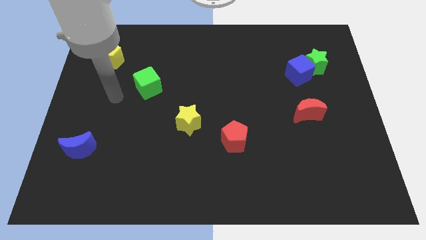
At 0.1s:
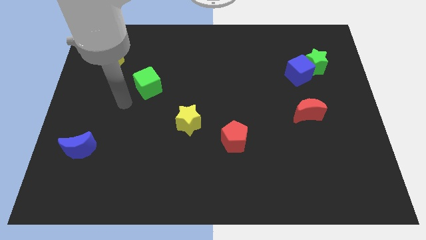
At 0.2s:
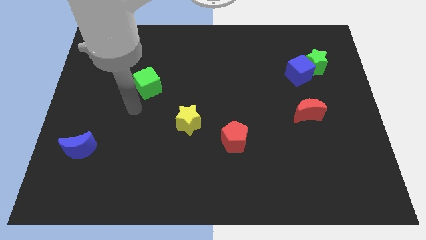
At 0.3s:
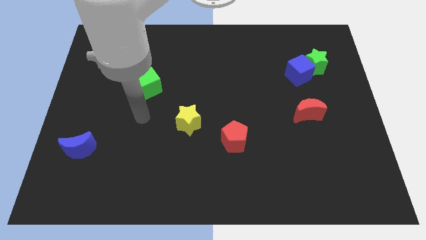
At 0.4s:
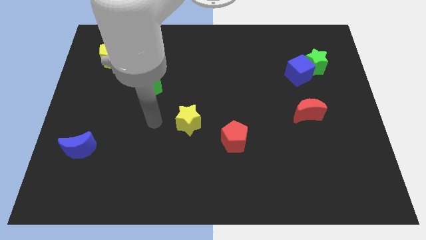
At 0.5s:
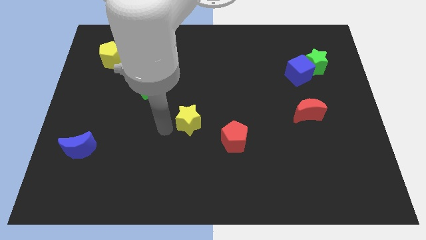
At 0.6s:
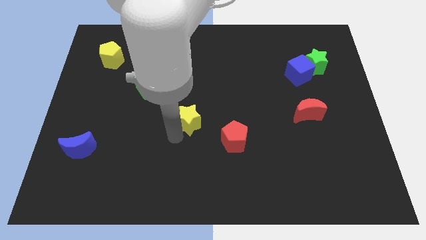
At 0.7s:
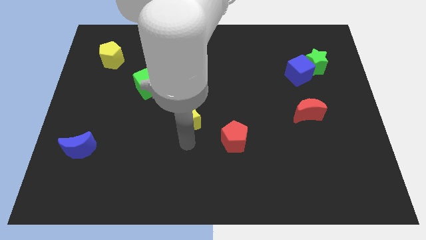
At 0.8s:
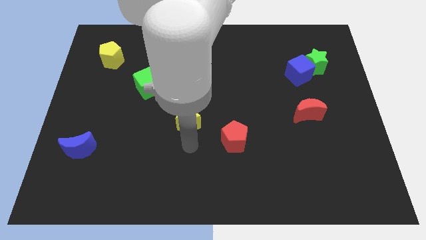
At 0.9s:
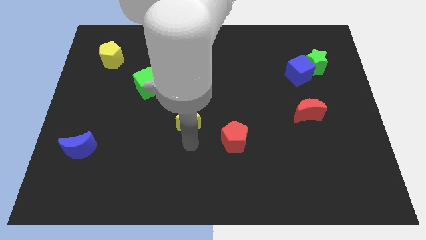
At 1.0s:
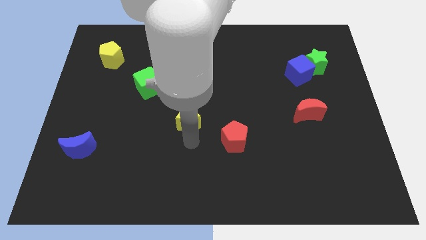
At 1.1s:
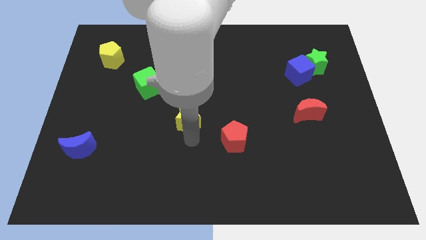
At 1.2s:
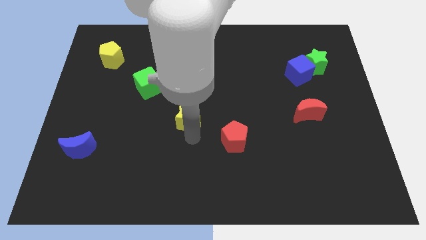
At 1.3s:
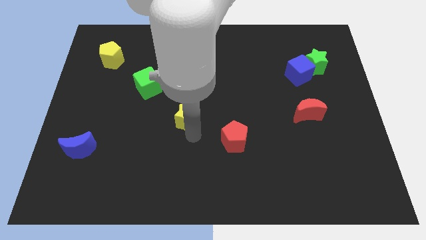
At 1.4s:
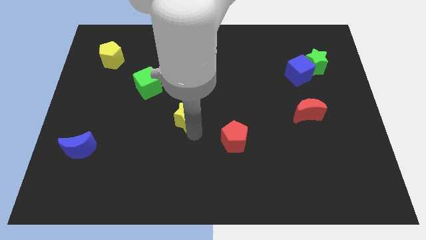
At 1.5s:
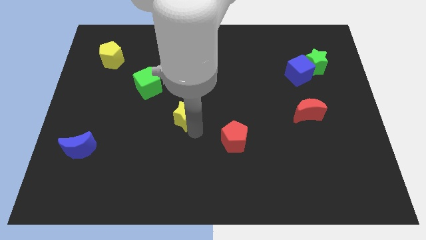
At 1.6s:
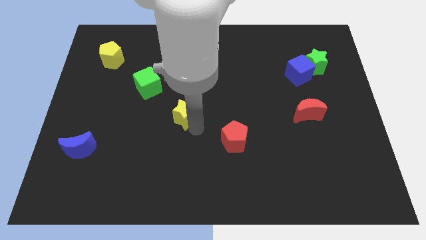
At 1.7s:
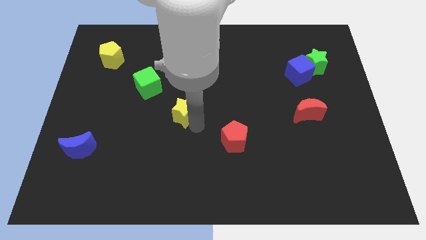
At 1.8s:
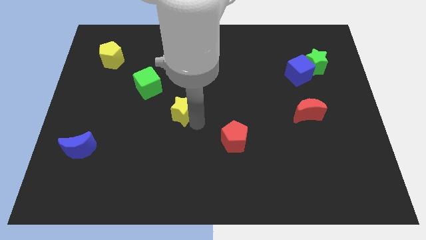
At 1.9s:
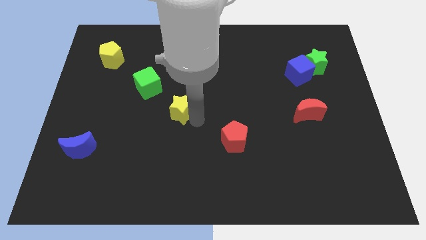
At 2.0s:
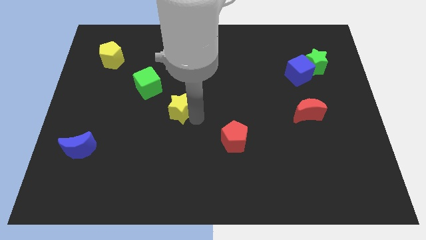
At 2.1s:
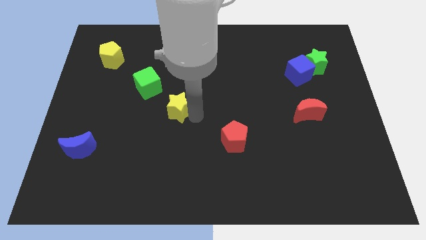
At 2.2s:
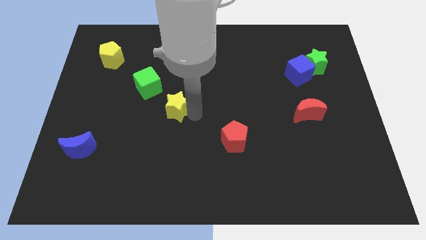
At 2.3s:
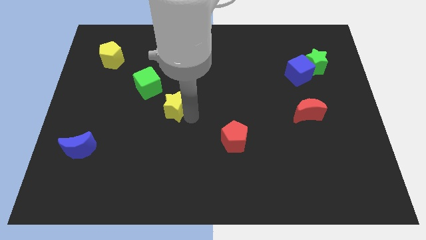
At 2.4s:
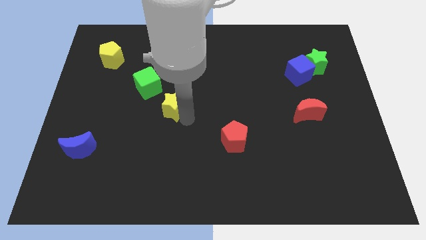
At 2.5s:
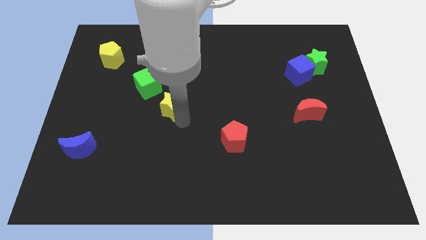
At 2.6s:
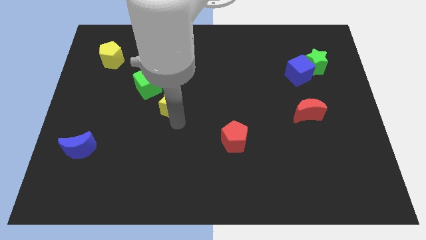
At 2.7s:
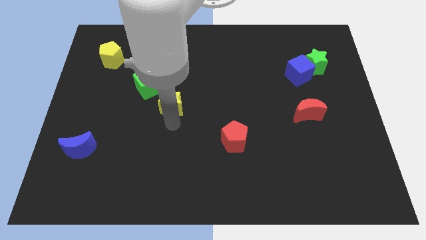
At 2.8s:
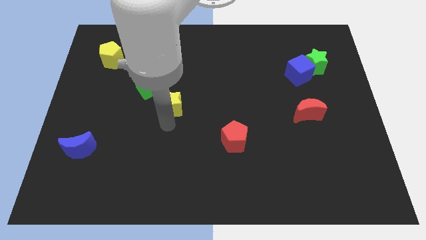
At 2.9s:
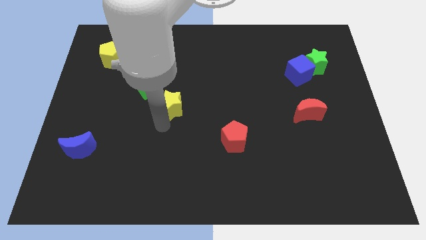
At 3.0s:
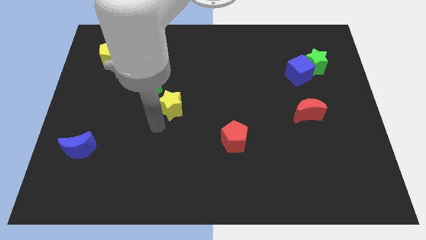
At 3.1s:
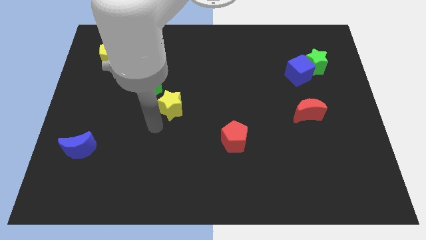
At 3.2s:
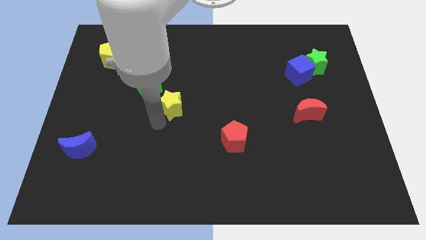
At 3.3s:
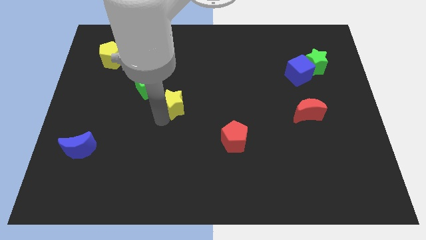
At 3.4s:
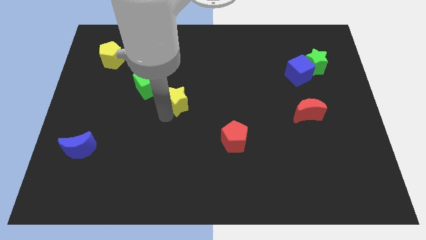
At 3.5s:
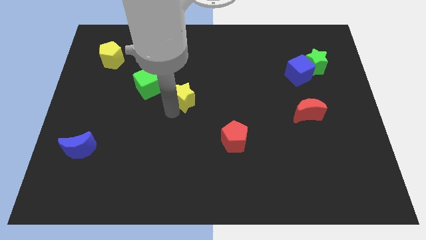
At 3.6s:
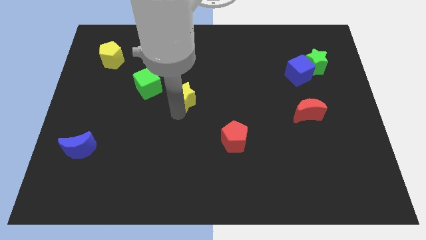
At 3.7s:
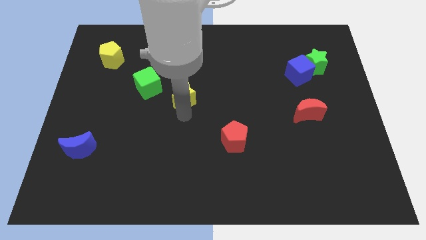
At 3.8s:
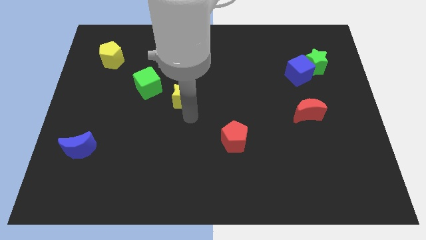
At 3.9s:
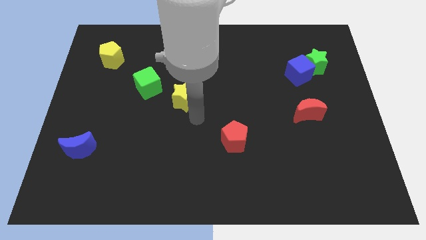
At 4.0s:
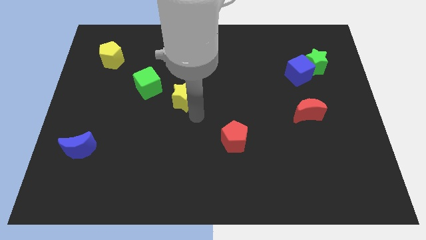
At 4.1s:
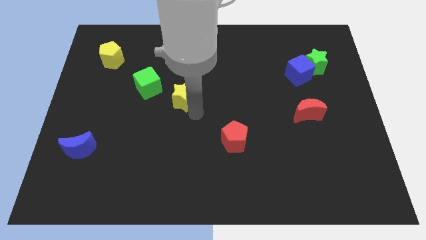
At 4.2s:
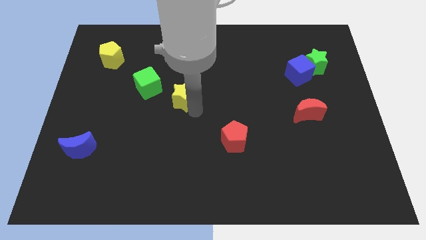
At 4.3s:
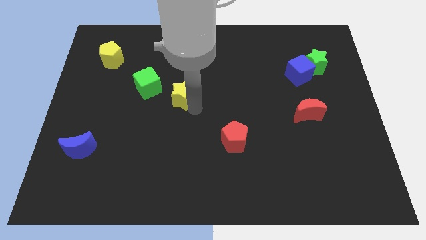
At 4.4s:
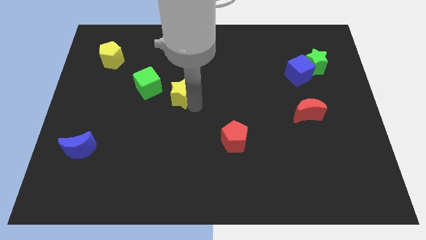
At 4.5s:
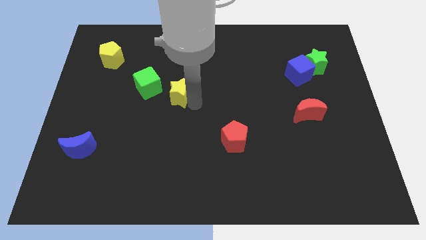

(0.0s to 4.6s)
push the yellow star a little bit upwards and then to the left

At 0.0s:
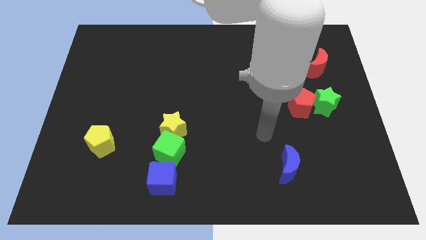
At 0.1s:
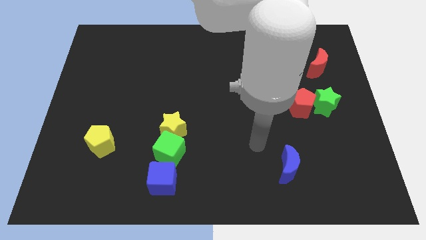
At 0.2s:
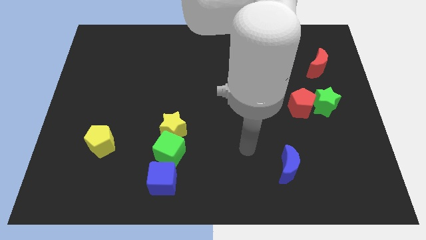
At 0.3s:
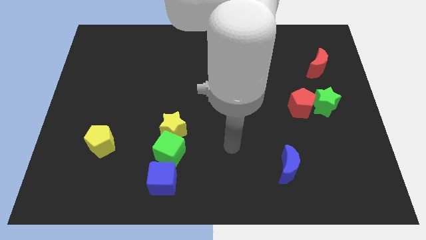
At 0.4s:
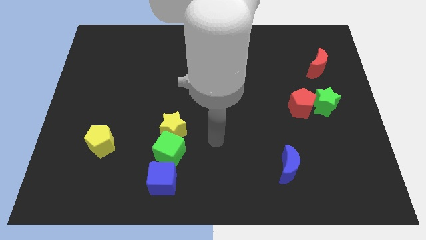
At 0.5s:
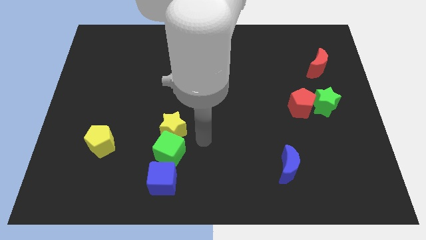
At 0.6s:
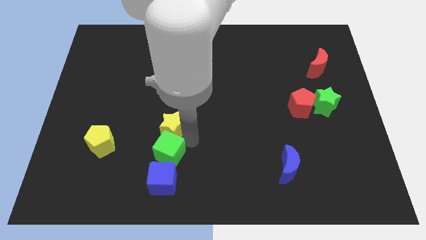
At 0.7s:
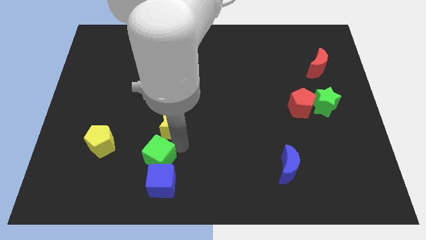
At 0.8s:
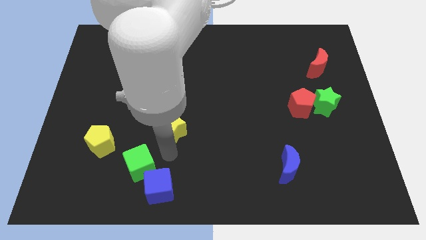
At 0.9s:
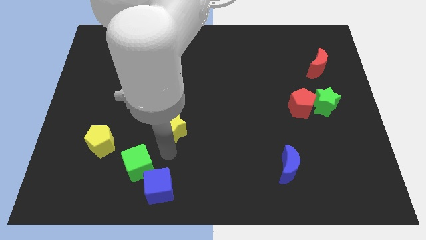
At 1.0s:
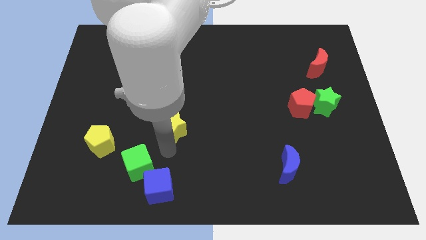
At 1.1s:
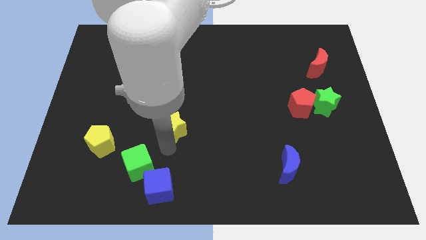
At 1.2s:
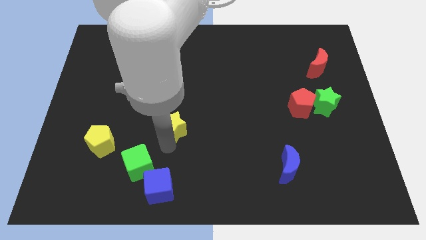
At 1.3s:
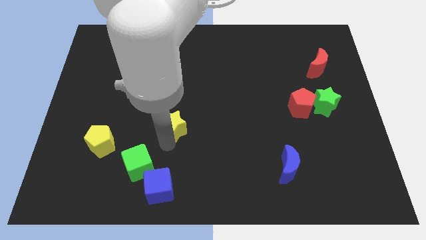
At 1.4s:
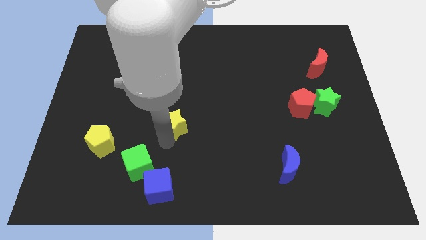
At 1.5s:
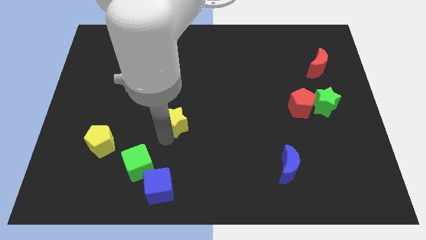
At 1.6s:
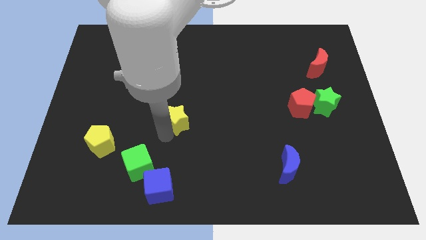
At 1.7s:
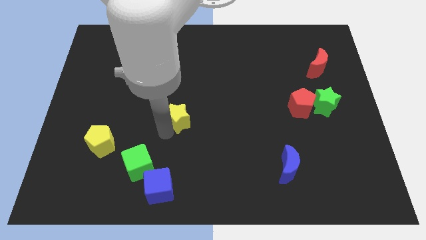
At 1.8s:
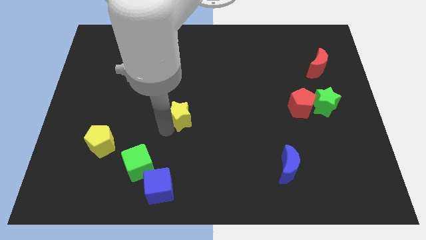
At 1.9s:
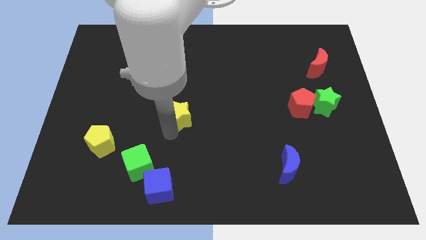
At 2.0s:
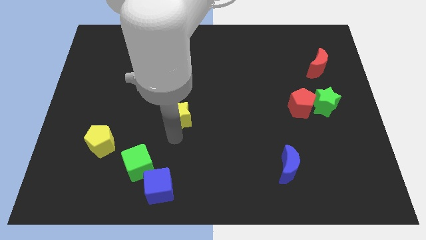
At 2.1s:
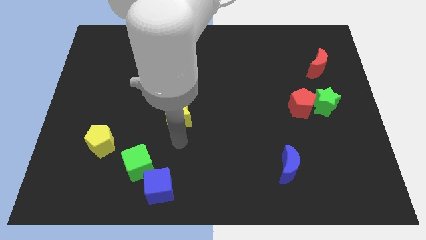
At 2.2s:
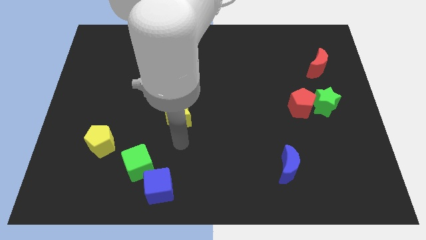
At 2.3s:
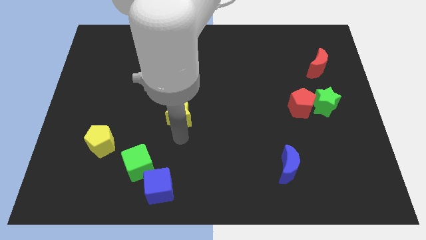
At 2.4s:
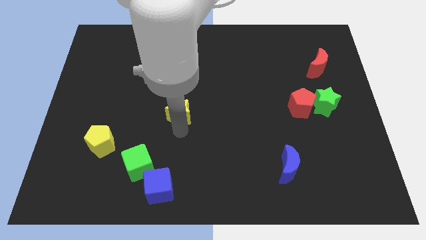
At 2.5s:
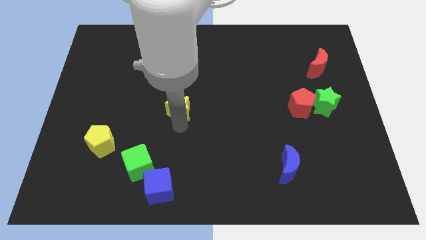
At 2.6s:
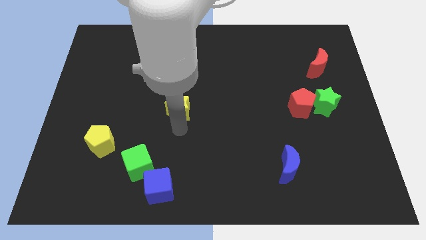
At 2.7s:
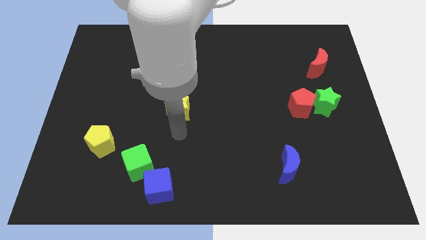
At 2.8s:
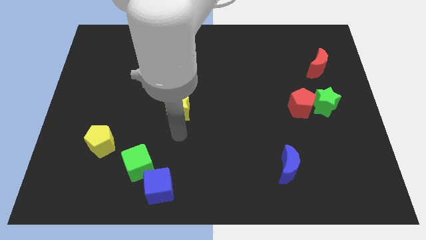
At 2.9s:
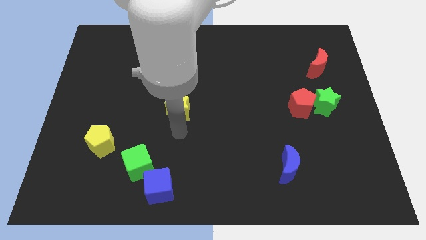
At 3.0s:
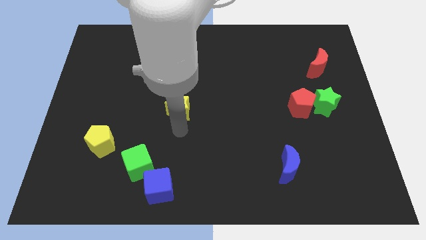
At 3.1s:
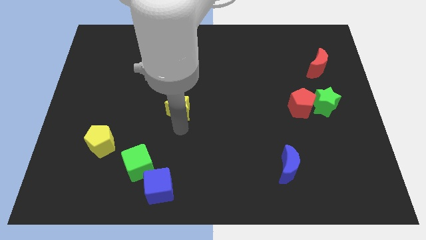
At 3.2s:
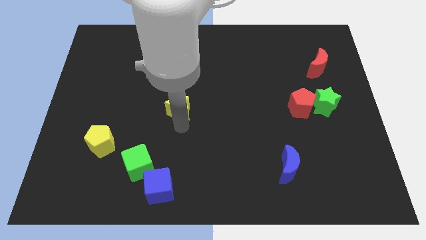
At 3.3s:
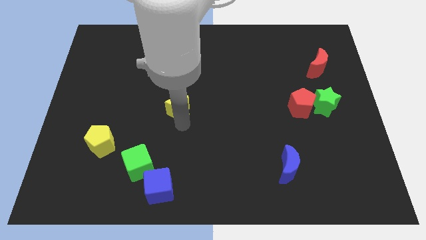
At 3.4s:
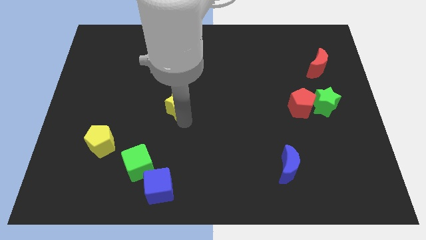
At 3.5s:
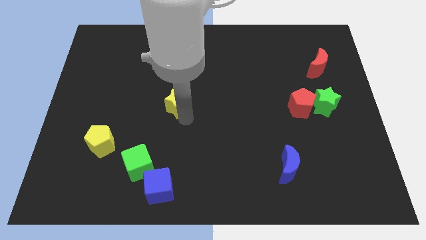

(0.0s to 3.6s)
slightly move the yellow star up
